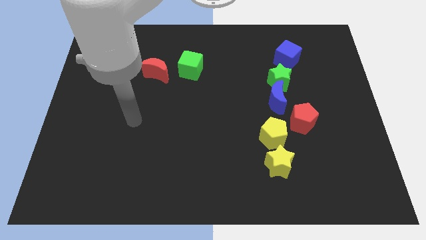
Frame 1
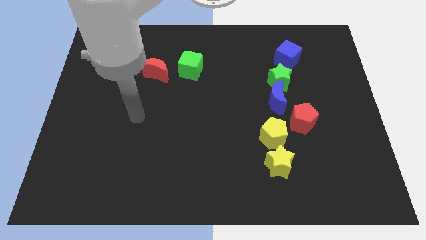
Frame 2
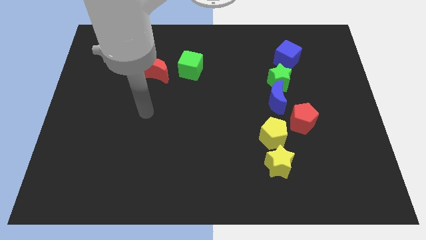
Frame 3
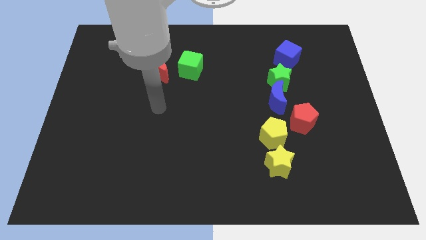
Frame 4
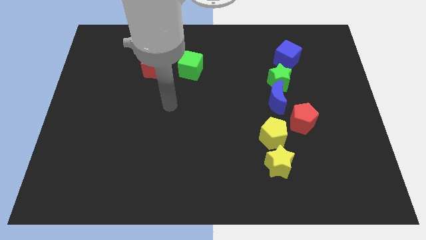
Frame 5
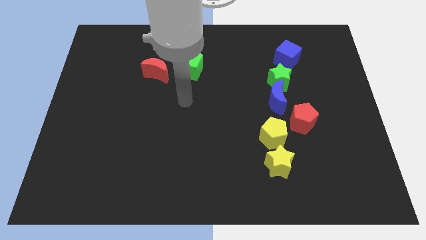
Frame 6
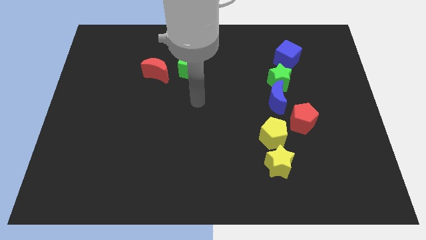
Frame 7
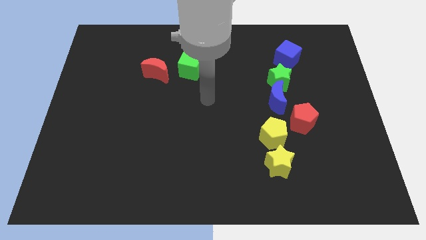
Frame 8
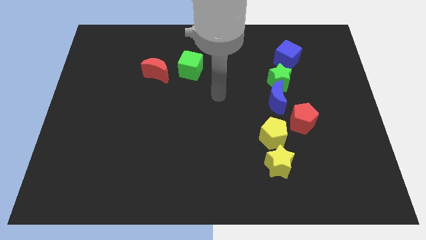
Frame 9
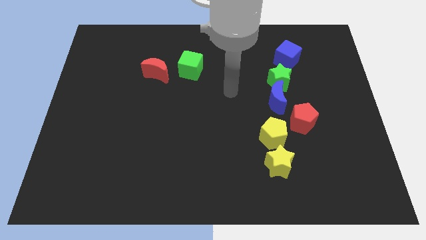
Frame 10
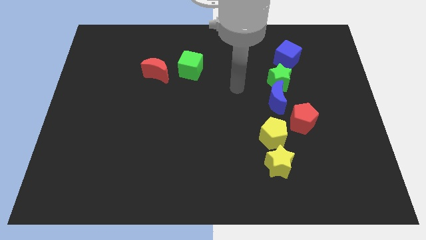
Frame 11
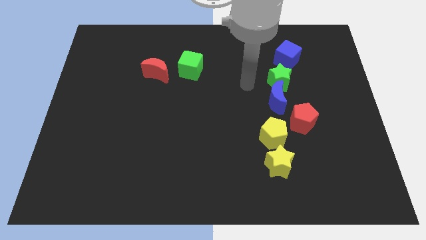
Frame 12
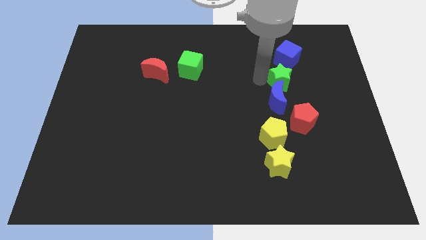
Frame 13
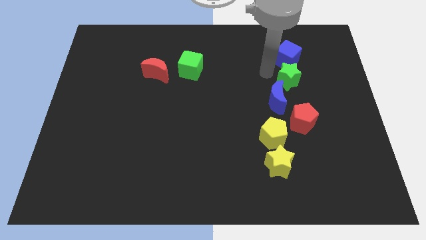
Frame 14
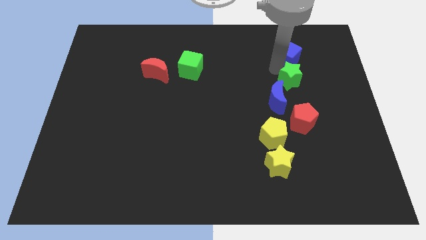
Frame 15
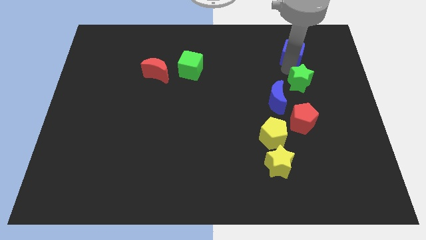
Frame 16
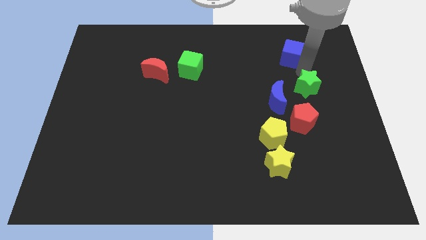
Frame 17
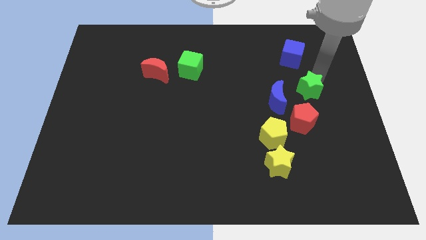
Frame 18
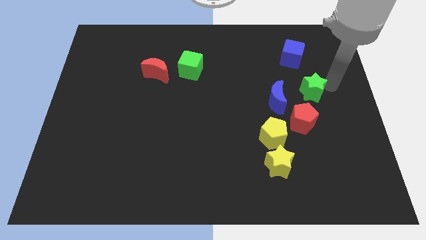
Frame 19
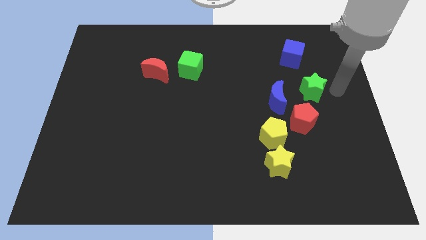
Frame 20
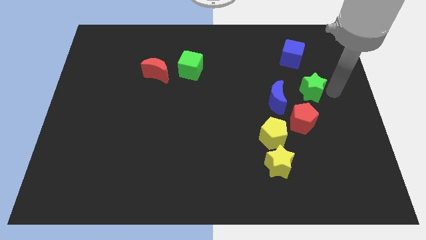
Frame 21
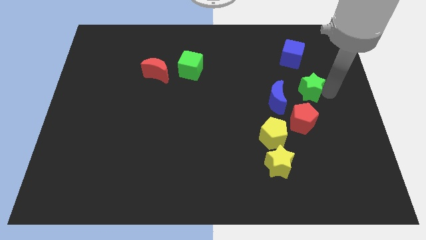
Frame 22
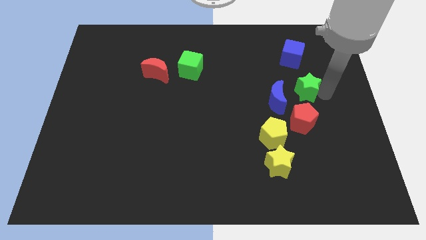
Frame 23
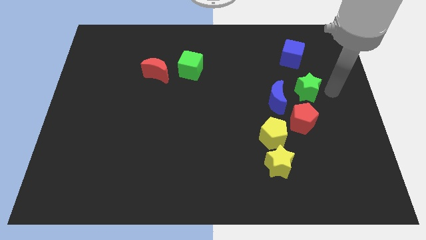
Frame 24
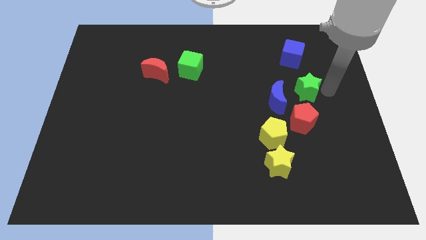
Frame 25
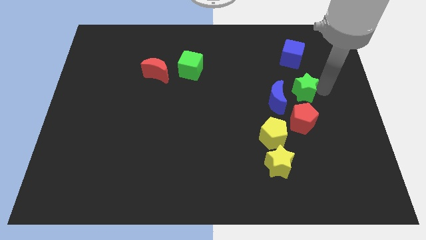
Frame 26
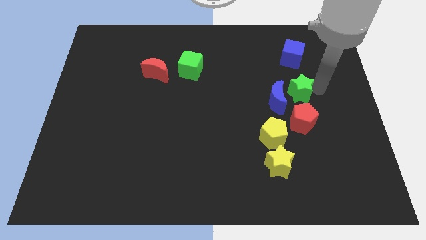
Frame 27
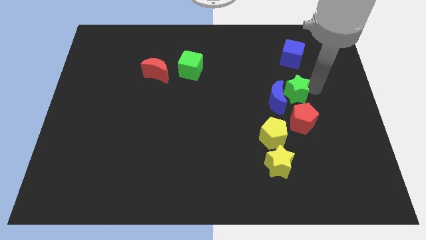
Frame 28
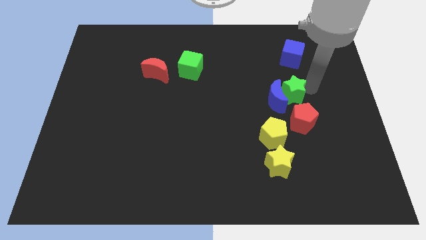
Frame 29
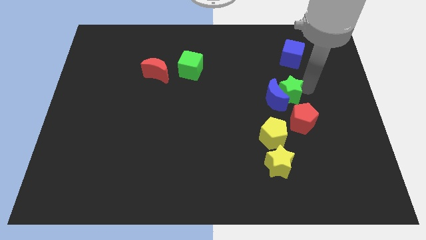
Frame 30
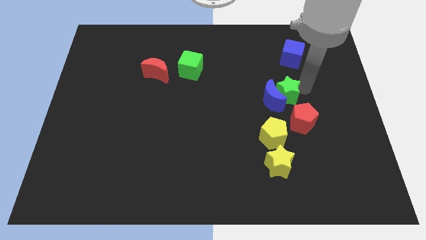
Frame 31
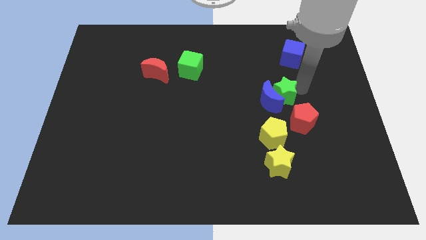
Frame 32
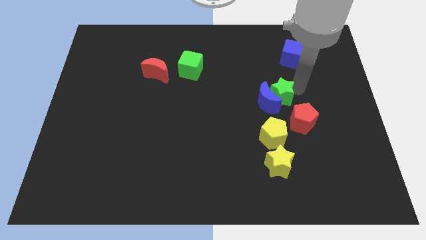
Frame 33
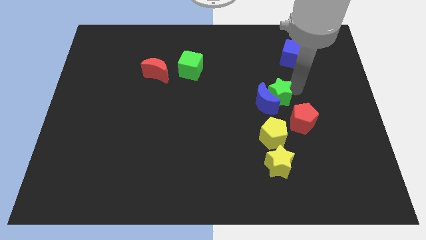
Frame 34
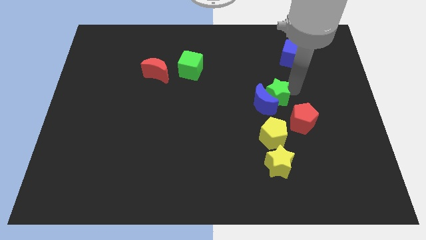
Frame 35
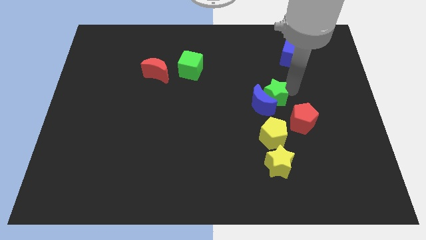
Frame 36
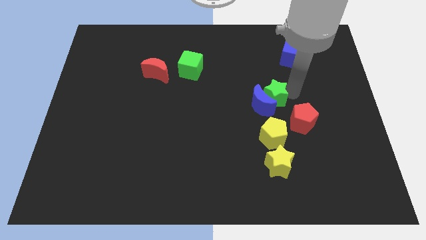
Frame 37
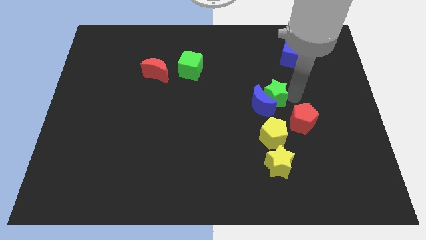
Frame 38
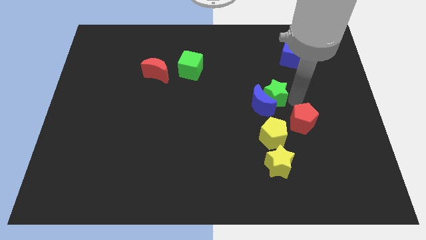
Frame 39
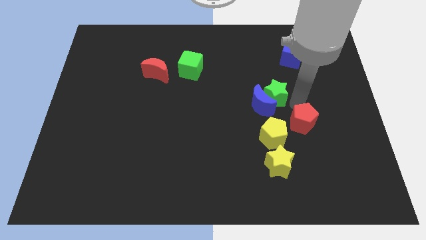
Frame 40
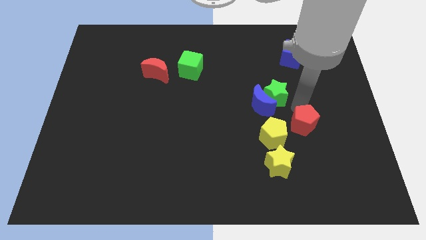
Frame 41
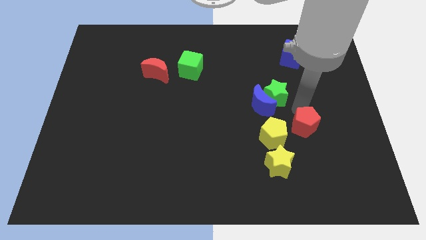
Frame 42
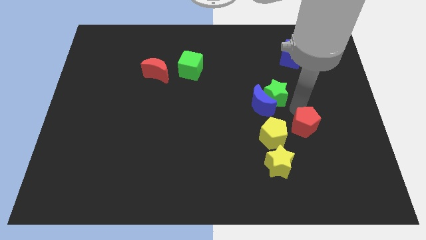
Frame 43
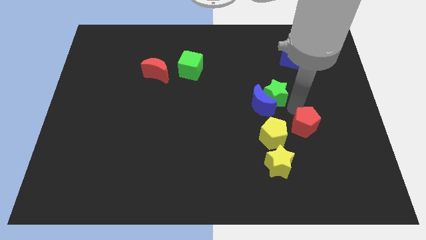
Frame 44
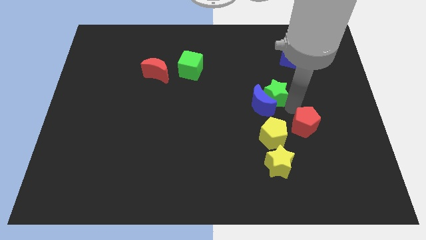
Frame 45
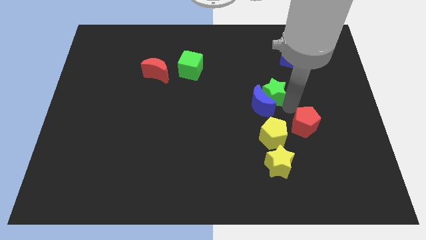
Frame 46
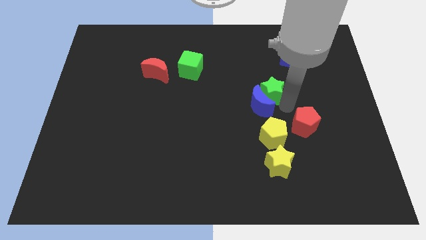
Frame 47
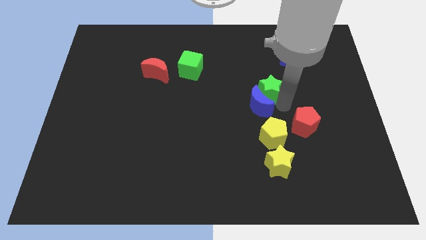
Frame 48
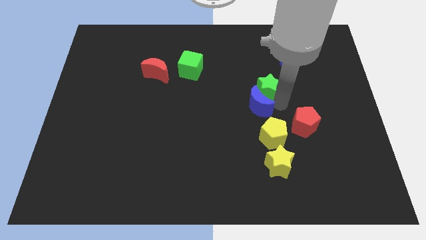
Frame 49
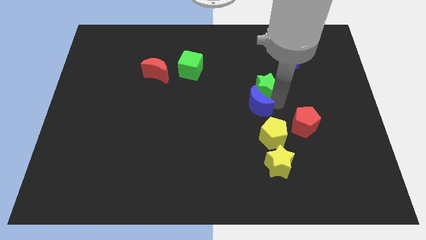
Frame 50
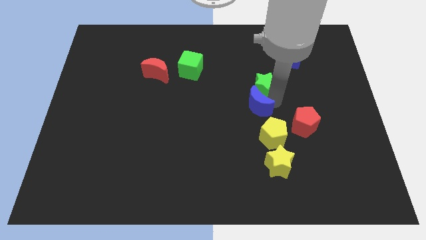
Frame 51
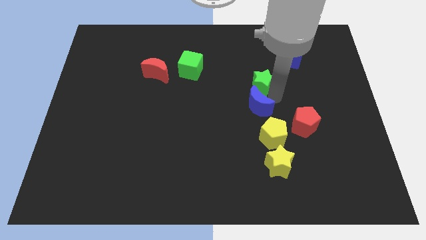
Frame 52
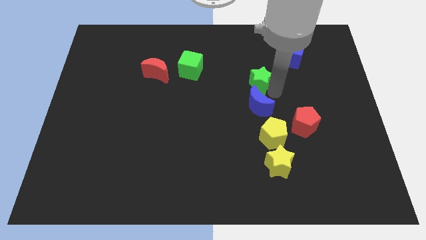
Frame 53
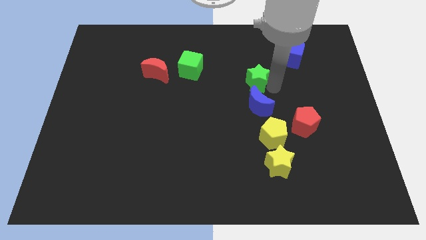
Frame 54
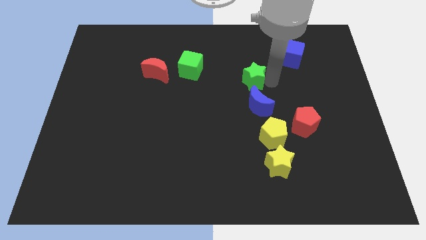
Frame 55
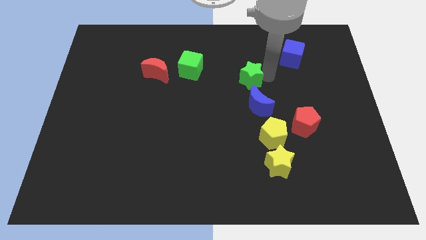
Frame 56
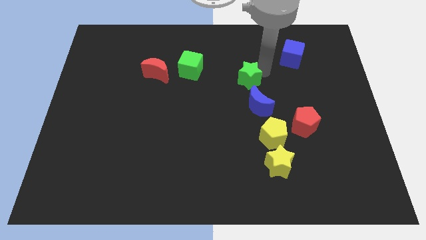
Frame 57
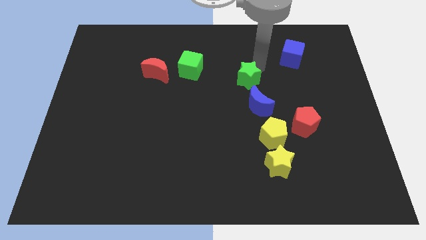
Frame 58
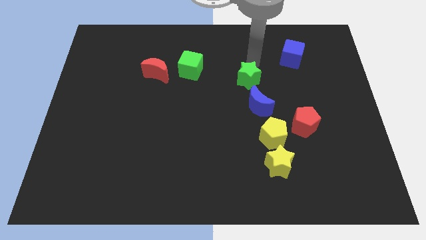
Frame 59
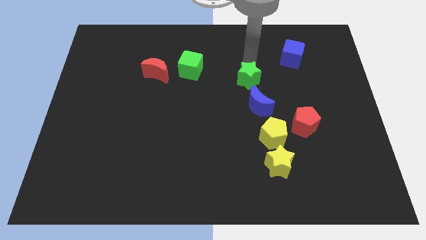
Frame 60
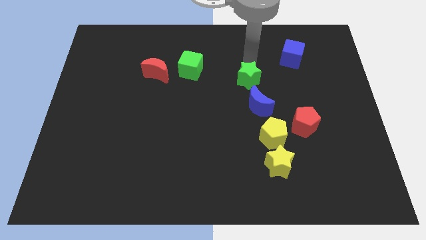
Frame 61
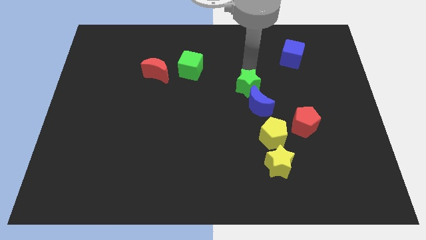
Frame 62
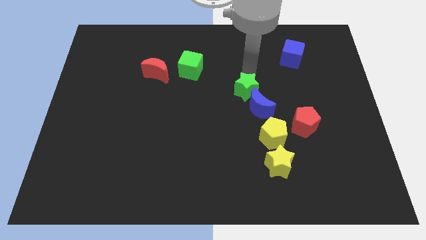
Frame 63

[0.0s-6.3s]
move the green star a little bit downwards and left diagonally

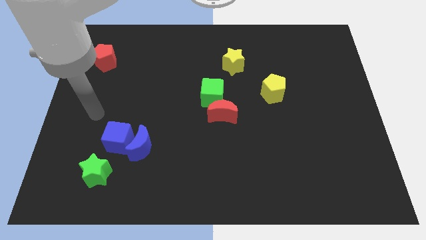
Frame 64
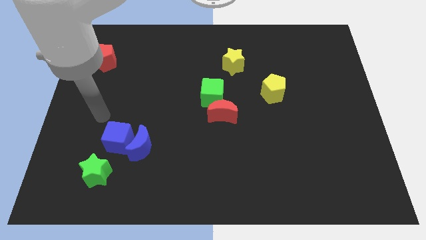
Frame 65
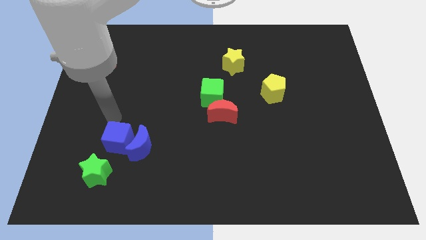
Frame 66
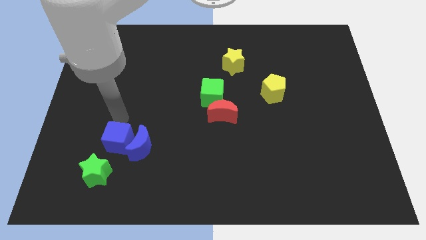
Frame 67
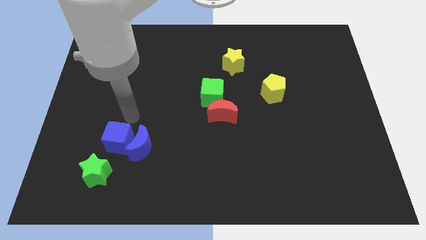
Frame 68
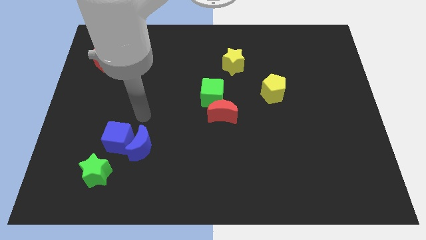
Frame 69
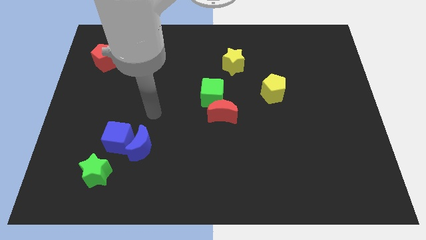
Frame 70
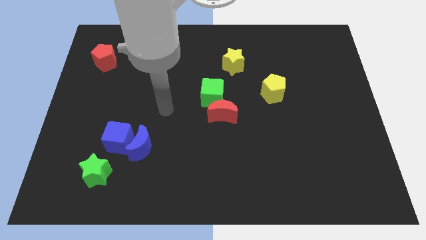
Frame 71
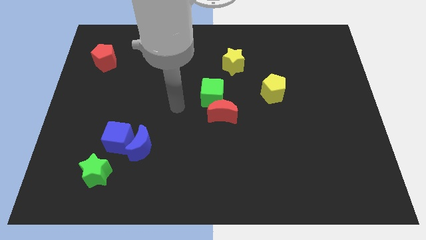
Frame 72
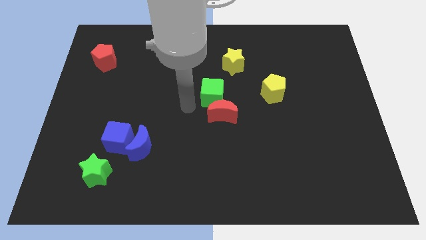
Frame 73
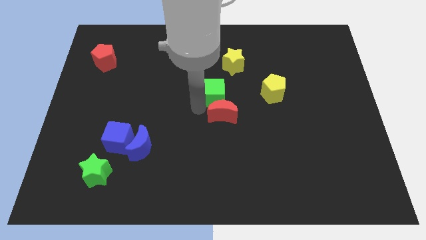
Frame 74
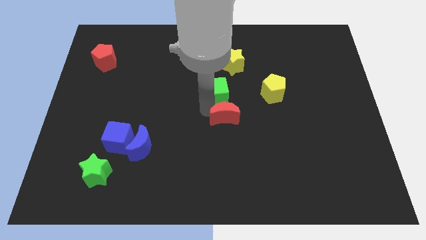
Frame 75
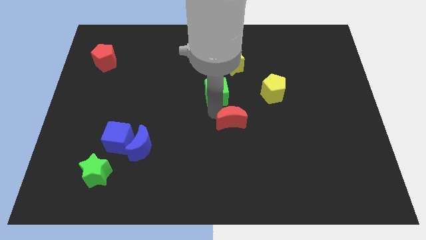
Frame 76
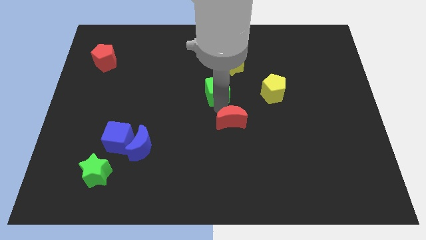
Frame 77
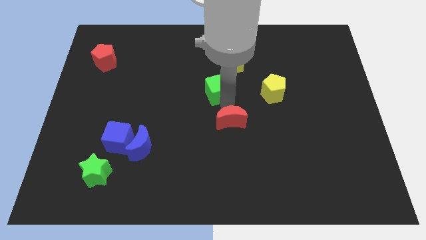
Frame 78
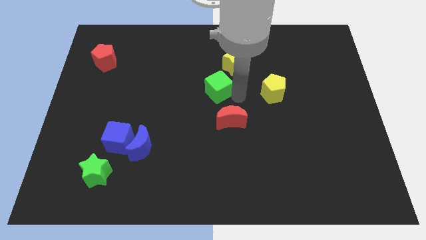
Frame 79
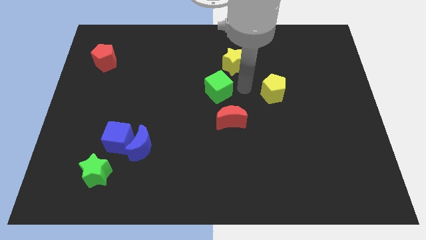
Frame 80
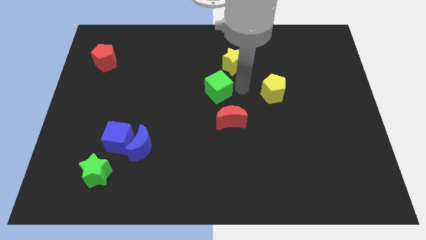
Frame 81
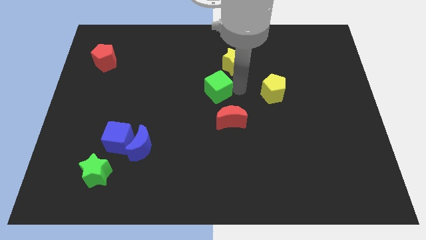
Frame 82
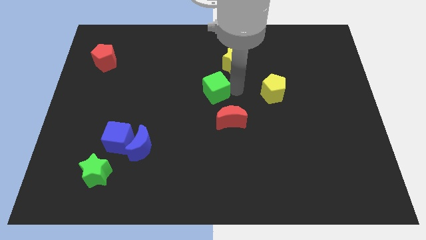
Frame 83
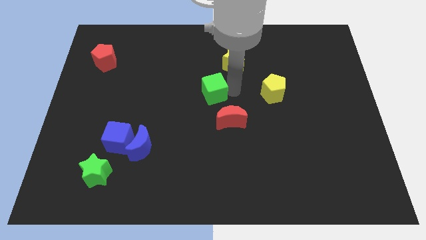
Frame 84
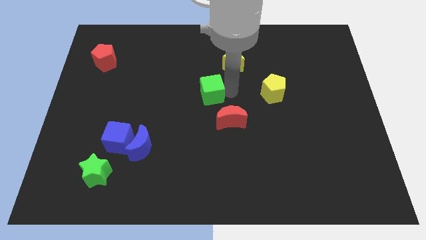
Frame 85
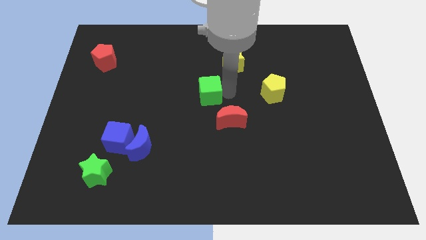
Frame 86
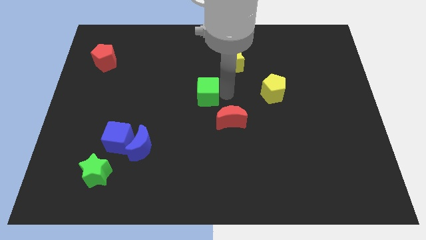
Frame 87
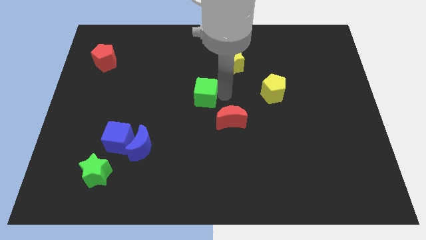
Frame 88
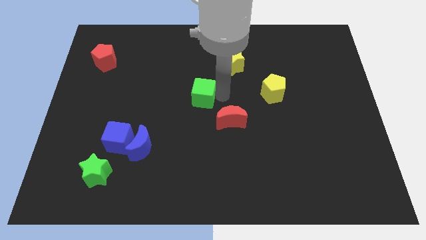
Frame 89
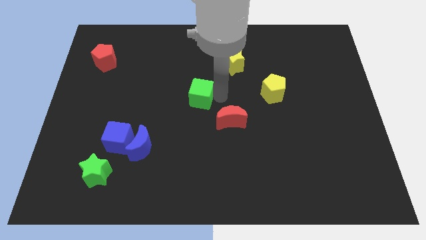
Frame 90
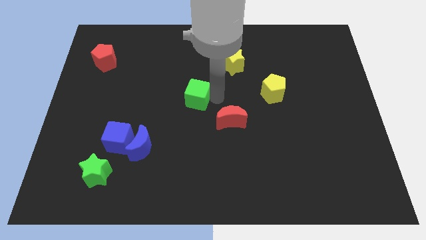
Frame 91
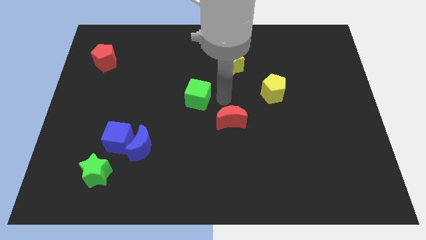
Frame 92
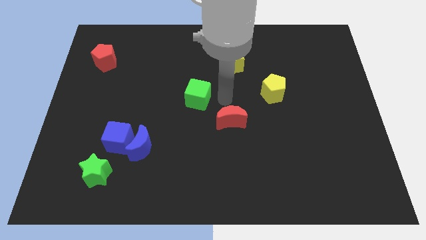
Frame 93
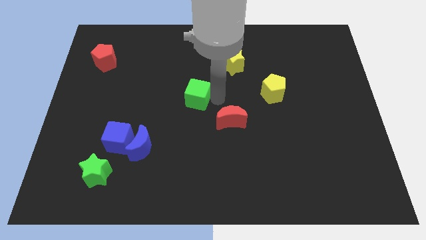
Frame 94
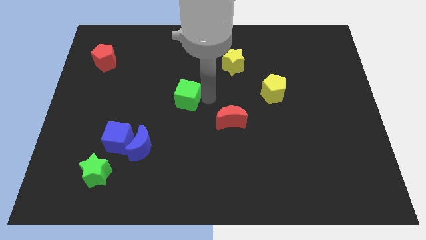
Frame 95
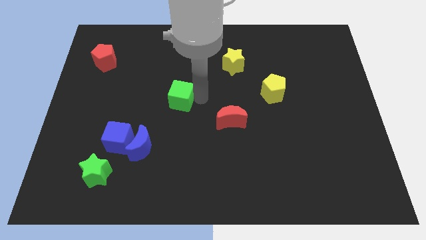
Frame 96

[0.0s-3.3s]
slightly slide the green cube left
